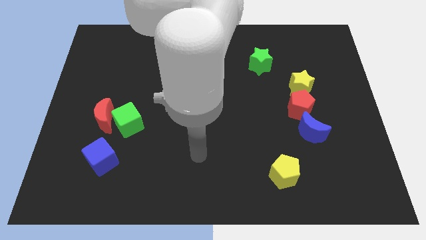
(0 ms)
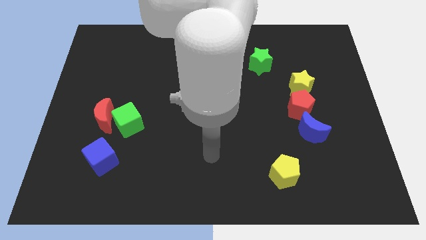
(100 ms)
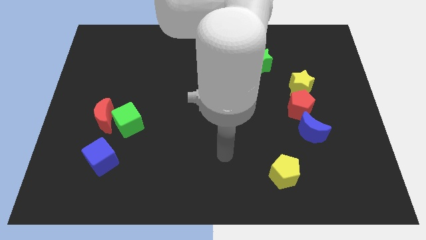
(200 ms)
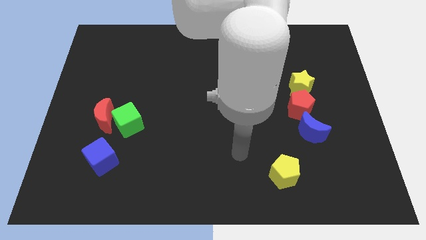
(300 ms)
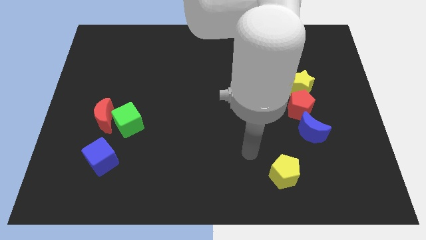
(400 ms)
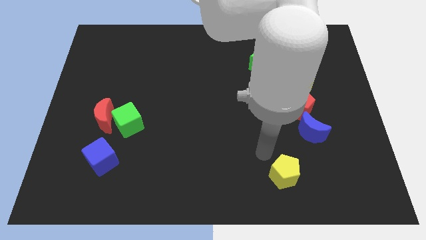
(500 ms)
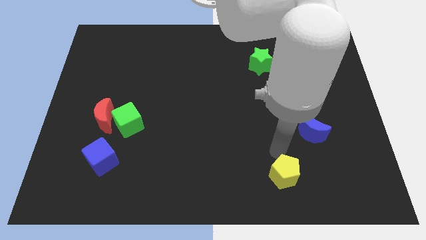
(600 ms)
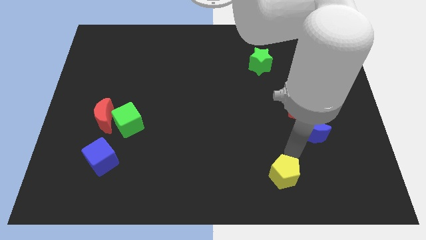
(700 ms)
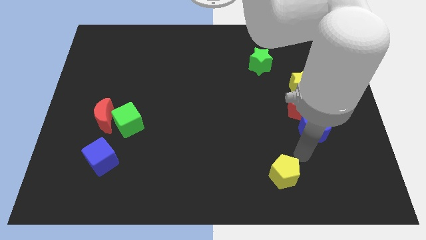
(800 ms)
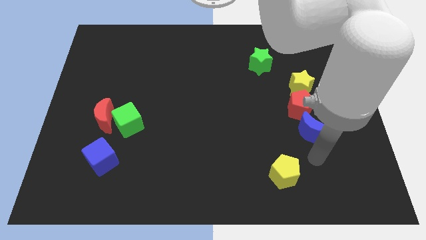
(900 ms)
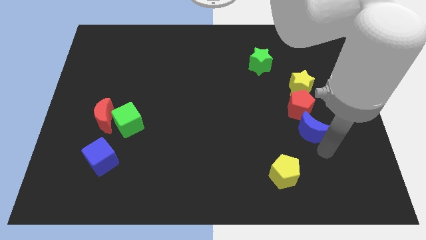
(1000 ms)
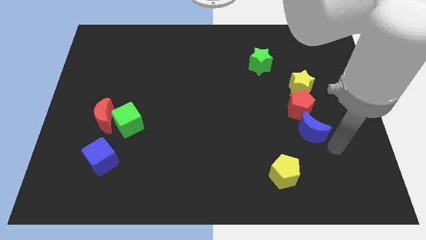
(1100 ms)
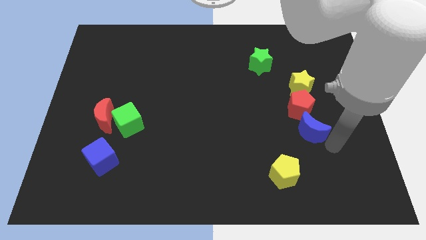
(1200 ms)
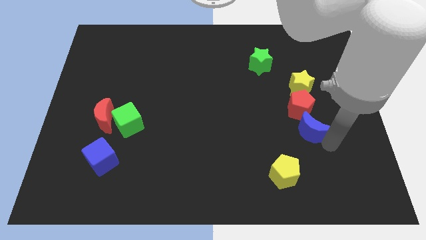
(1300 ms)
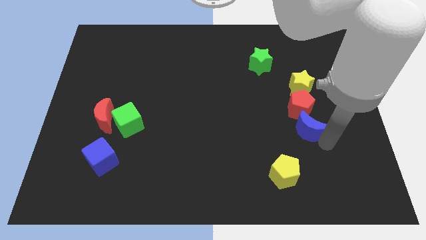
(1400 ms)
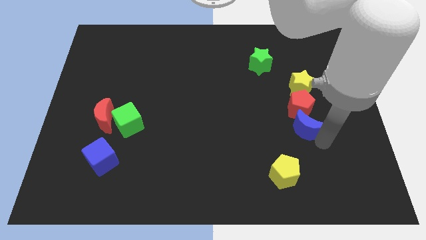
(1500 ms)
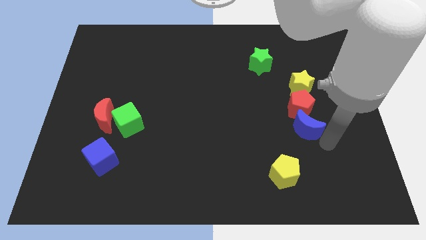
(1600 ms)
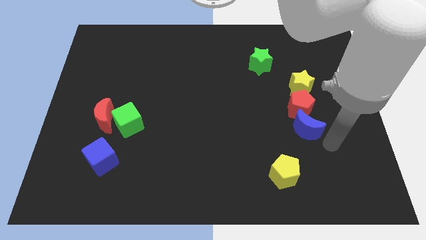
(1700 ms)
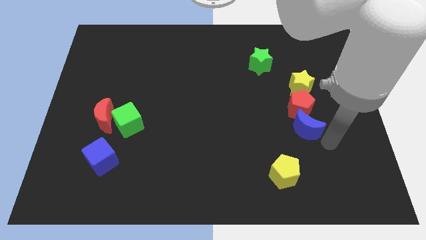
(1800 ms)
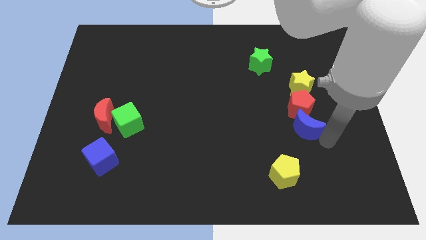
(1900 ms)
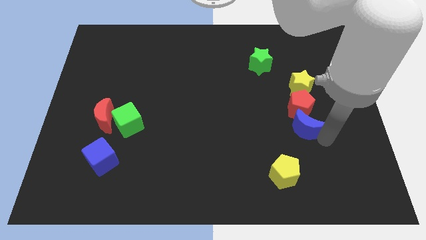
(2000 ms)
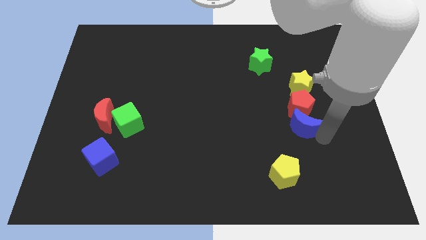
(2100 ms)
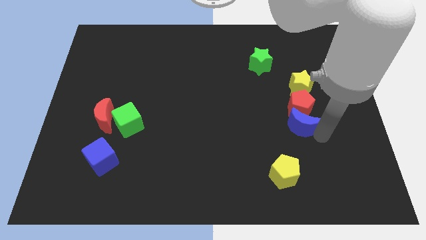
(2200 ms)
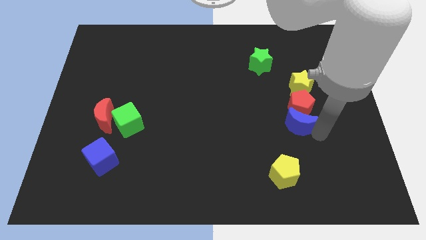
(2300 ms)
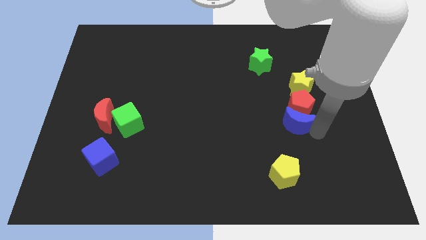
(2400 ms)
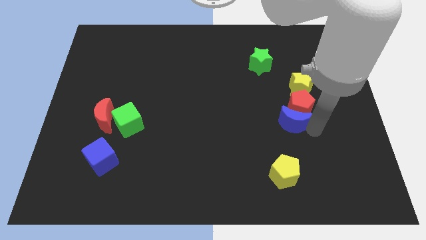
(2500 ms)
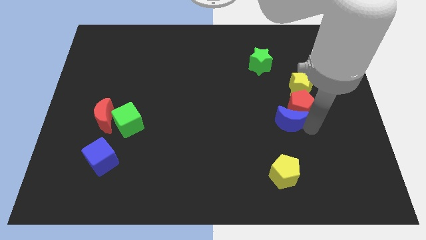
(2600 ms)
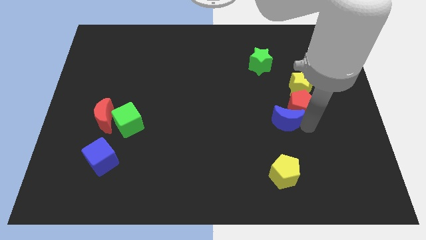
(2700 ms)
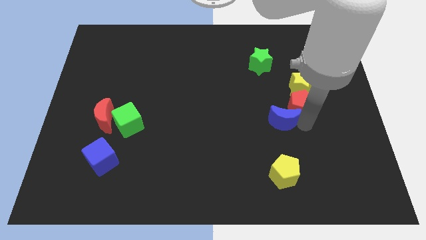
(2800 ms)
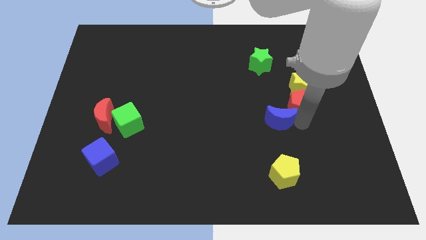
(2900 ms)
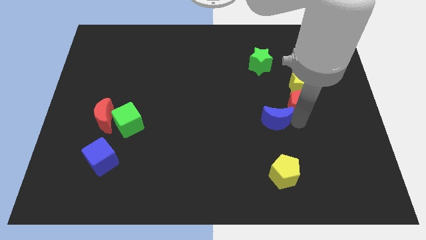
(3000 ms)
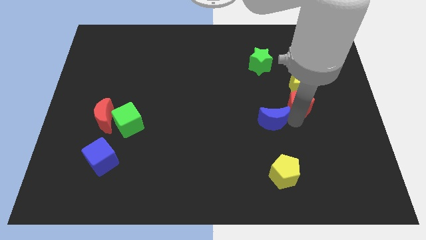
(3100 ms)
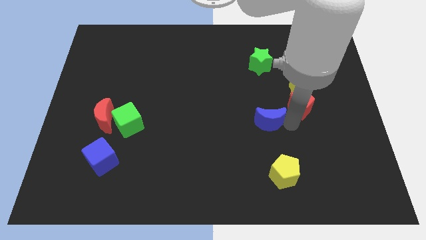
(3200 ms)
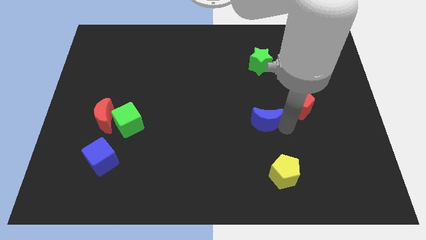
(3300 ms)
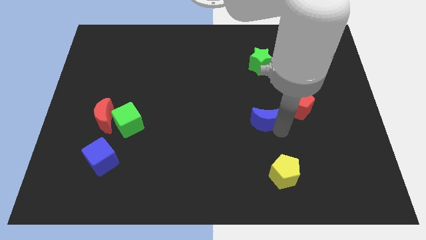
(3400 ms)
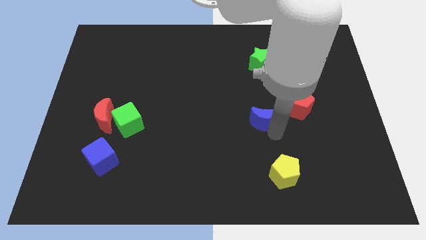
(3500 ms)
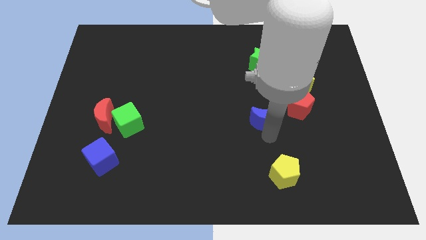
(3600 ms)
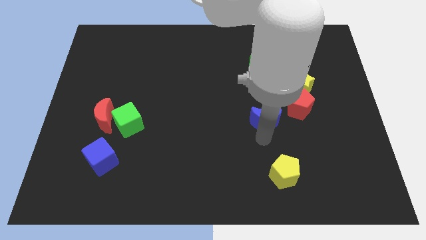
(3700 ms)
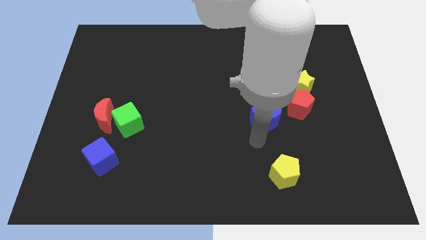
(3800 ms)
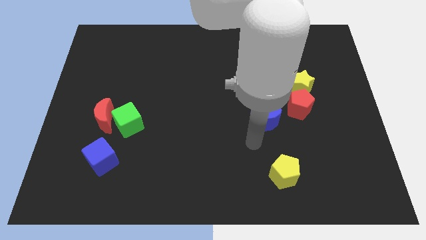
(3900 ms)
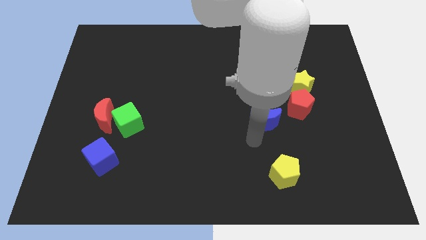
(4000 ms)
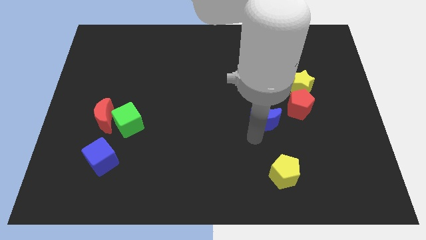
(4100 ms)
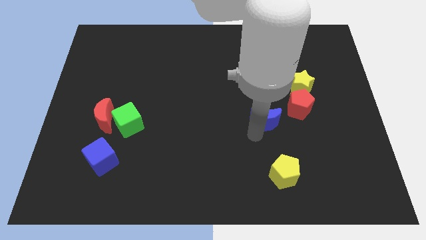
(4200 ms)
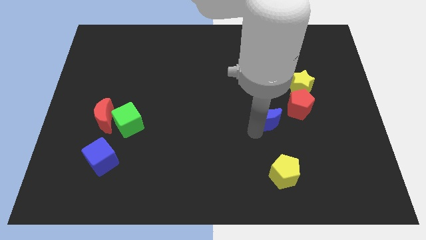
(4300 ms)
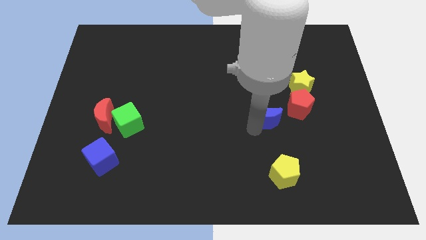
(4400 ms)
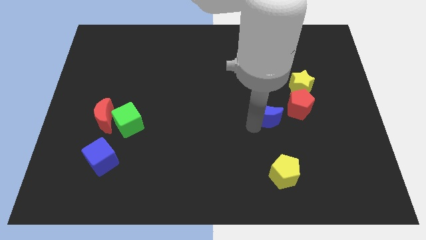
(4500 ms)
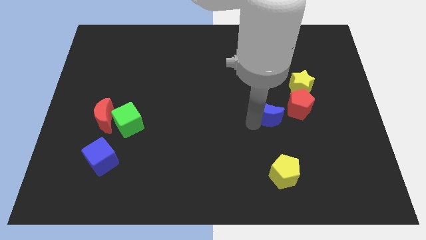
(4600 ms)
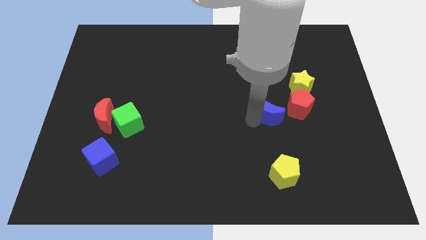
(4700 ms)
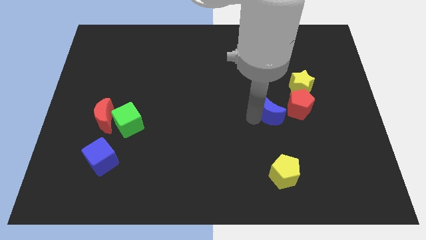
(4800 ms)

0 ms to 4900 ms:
put the blue moon below the green star

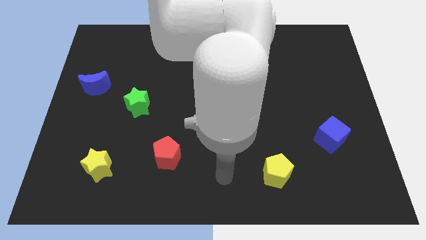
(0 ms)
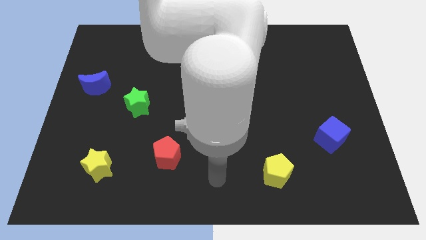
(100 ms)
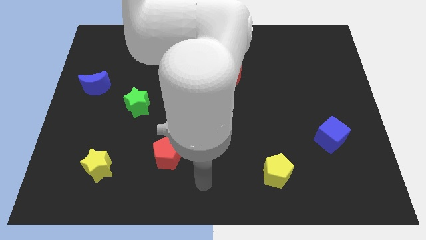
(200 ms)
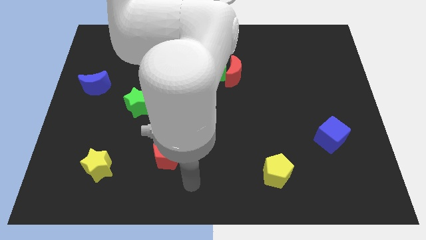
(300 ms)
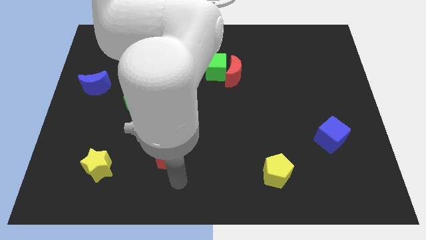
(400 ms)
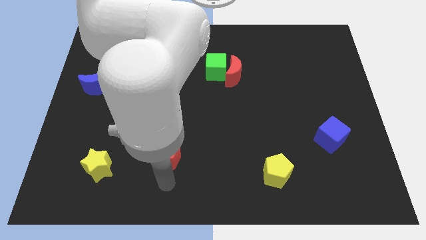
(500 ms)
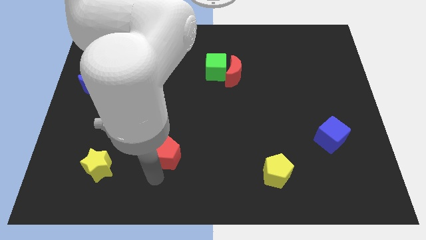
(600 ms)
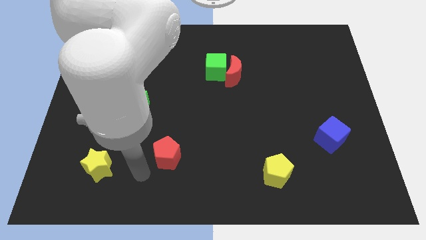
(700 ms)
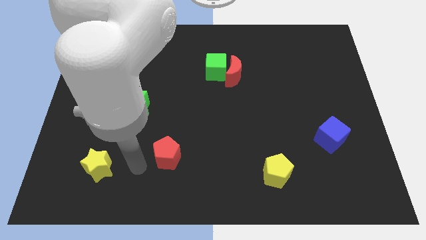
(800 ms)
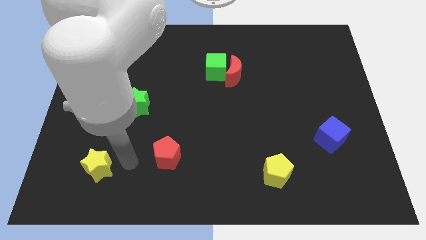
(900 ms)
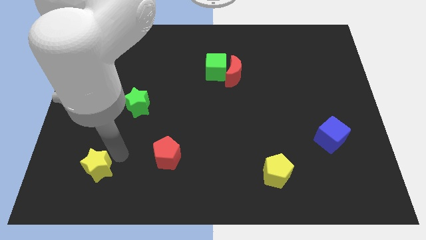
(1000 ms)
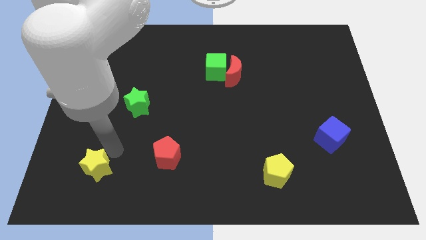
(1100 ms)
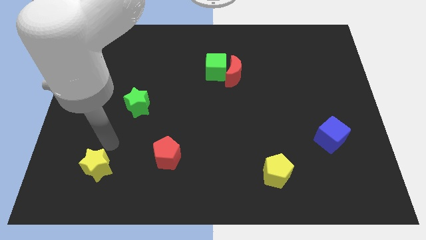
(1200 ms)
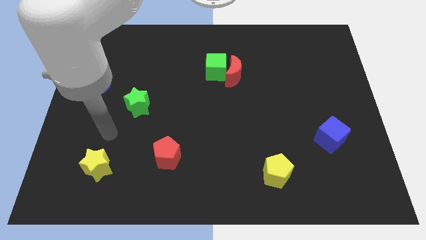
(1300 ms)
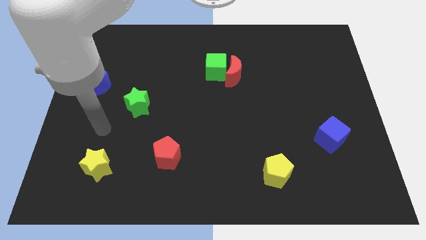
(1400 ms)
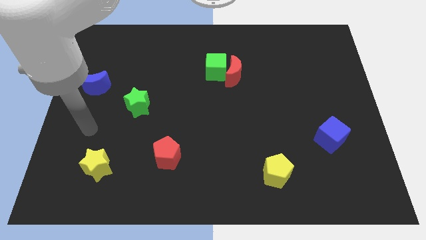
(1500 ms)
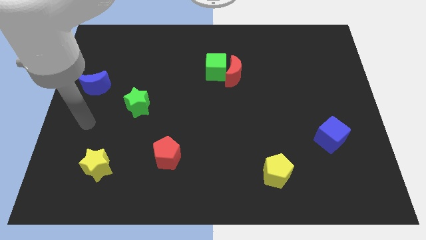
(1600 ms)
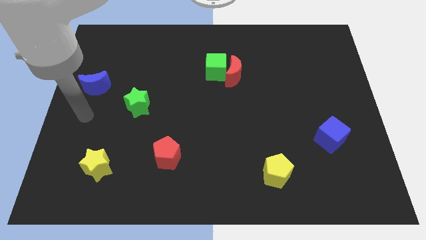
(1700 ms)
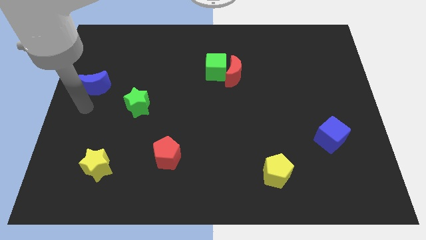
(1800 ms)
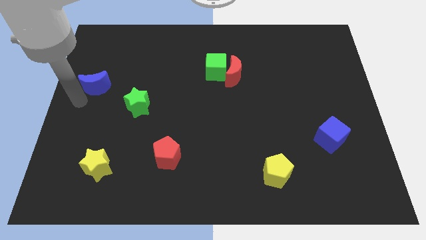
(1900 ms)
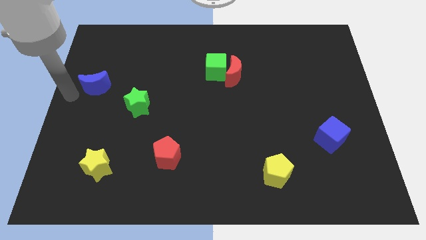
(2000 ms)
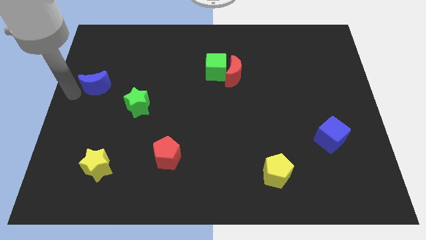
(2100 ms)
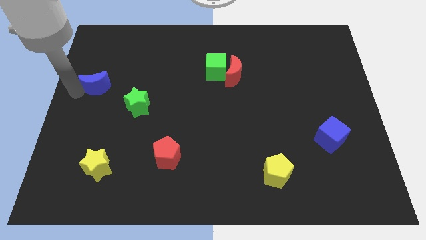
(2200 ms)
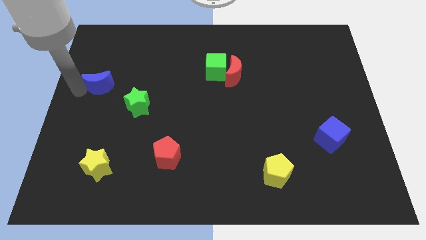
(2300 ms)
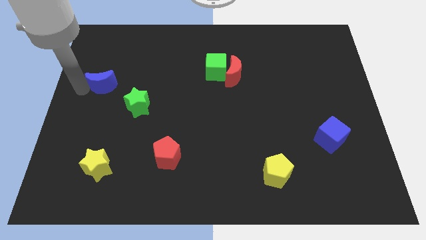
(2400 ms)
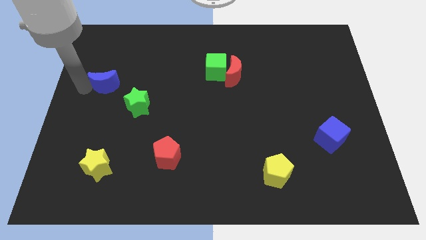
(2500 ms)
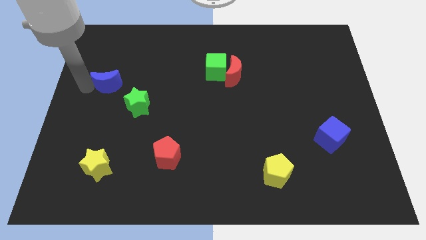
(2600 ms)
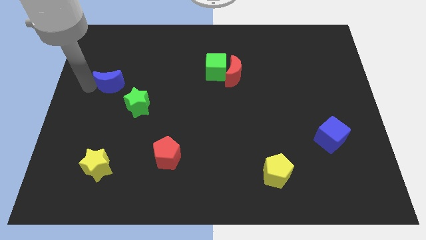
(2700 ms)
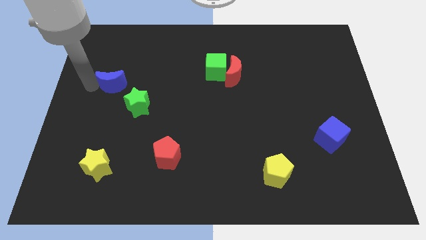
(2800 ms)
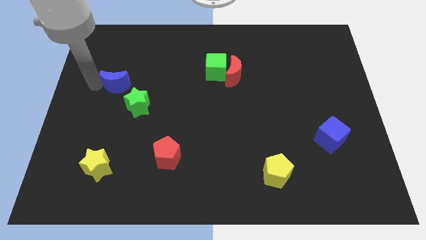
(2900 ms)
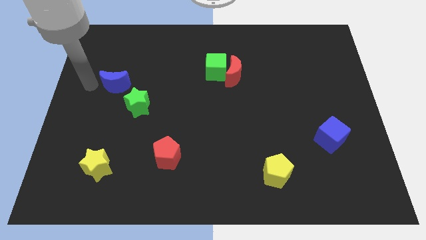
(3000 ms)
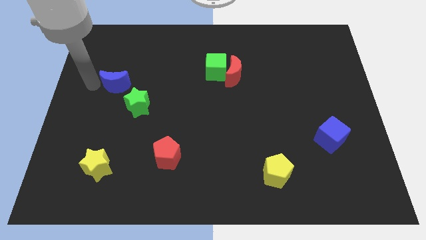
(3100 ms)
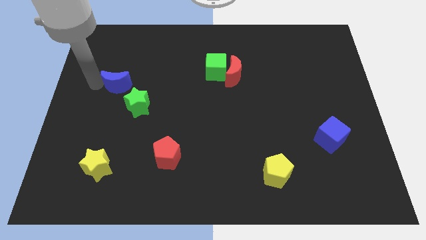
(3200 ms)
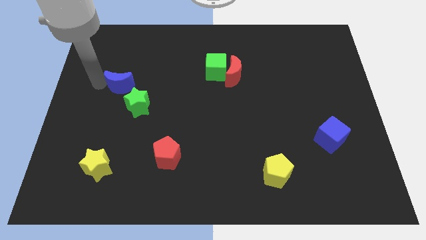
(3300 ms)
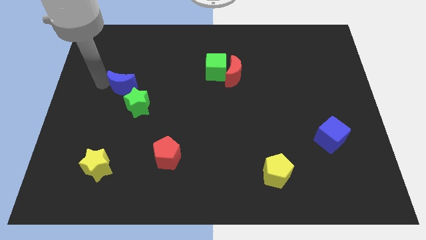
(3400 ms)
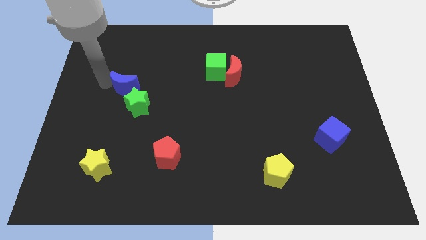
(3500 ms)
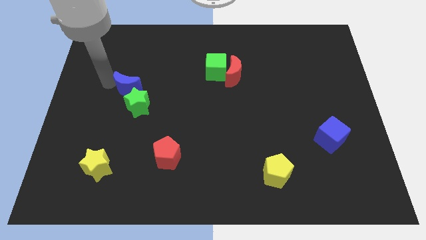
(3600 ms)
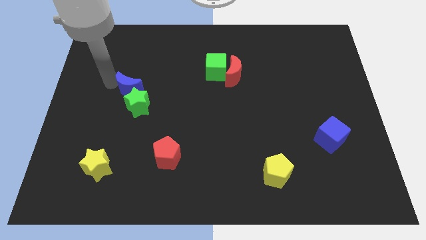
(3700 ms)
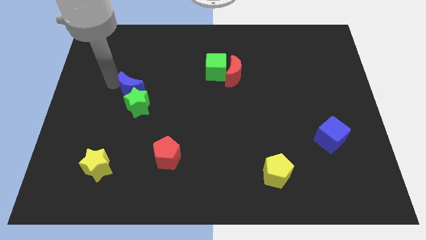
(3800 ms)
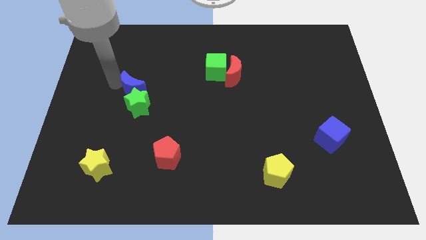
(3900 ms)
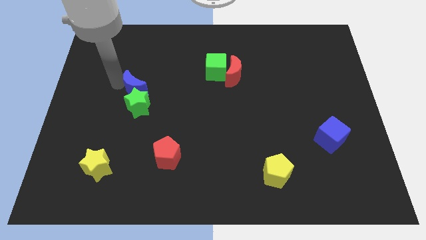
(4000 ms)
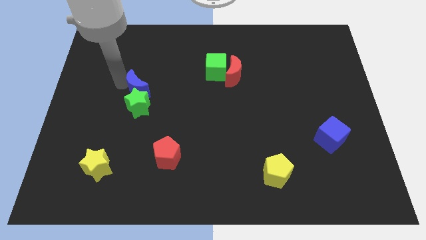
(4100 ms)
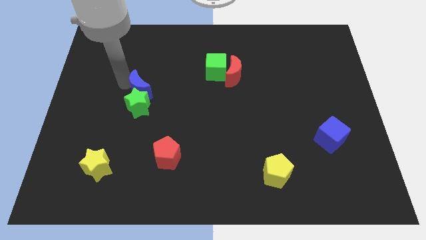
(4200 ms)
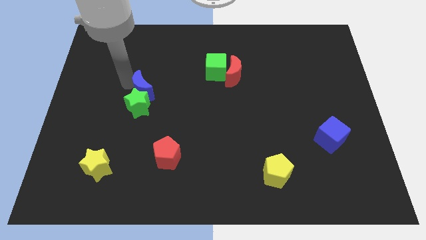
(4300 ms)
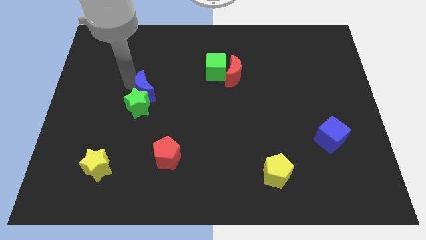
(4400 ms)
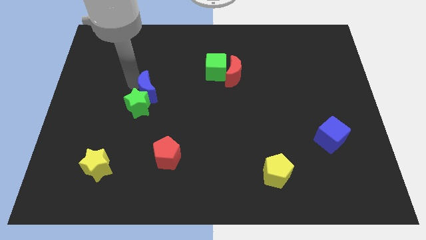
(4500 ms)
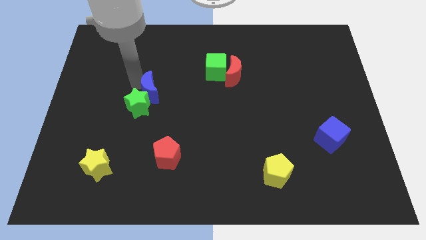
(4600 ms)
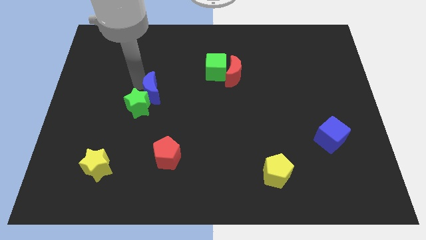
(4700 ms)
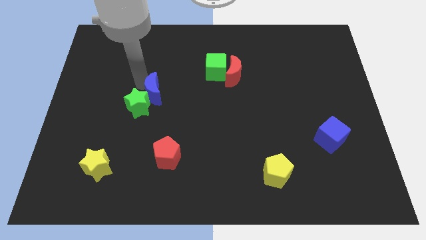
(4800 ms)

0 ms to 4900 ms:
push the blue moon right of the green star
